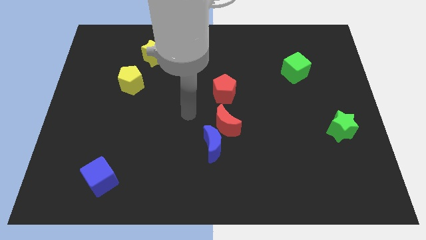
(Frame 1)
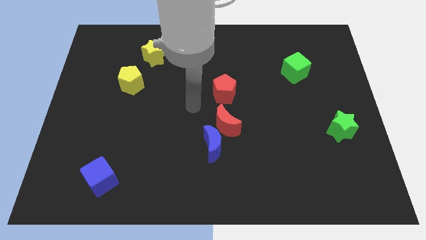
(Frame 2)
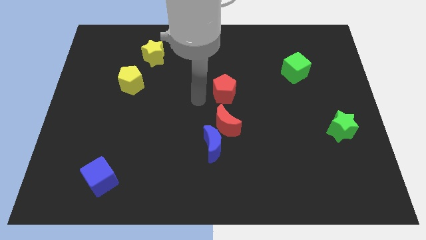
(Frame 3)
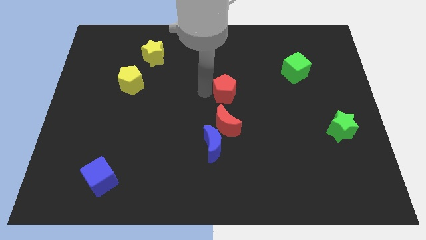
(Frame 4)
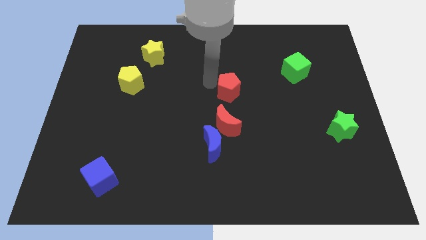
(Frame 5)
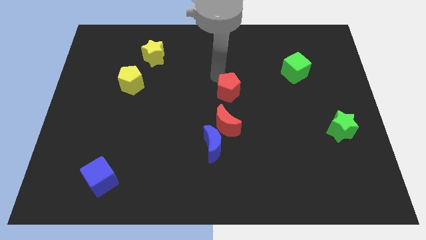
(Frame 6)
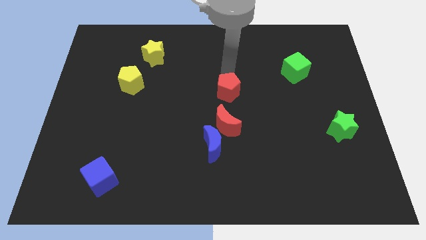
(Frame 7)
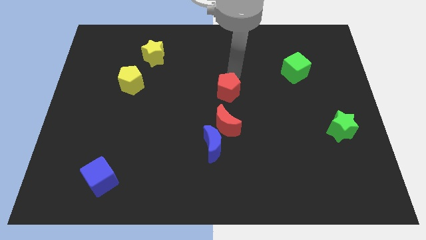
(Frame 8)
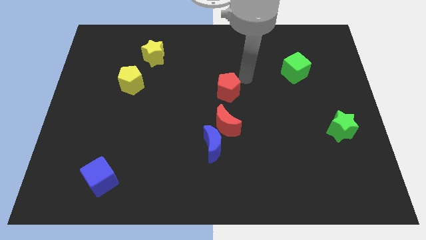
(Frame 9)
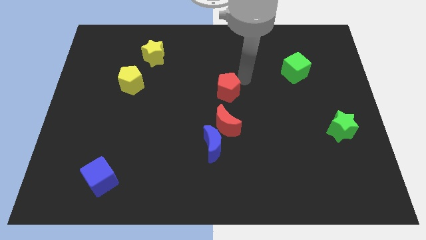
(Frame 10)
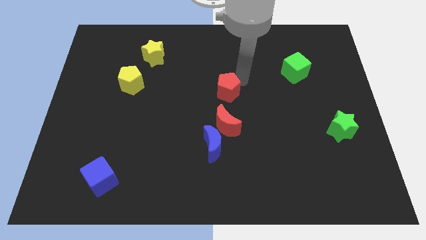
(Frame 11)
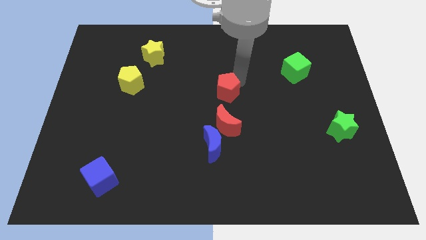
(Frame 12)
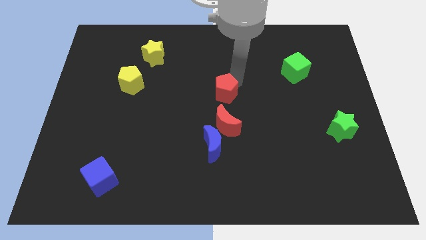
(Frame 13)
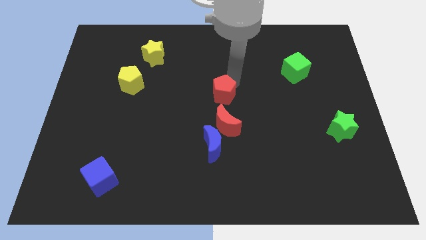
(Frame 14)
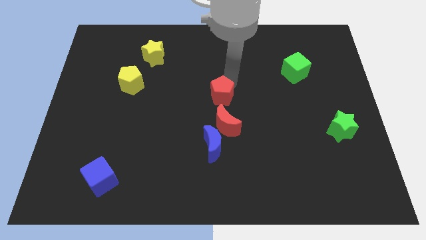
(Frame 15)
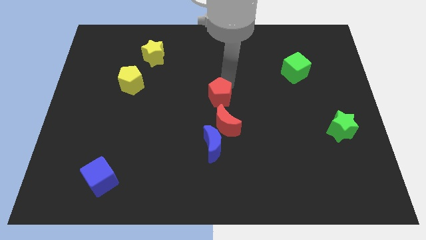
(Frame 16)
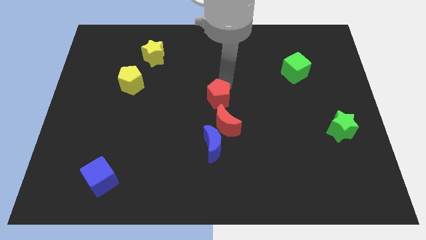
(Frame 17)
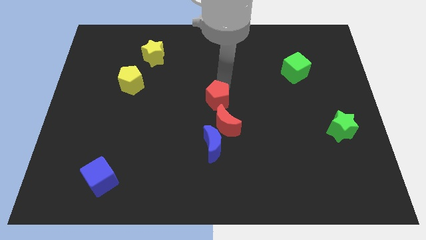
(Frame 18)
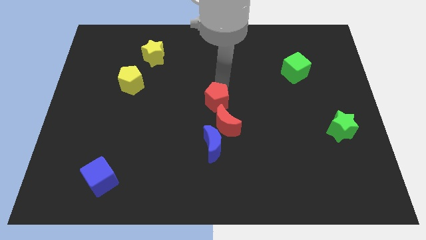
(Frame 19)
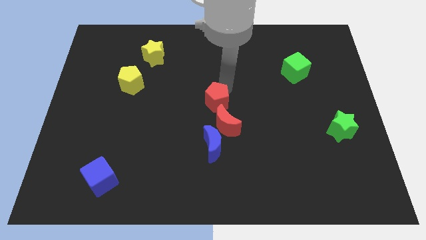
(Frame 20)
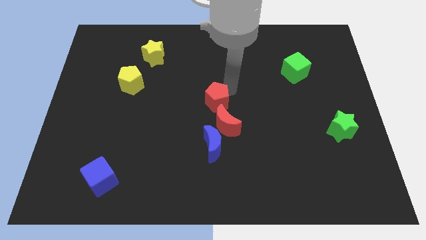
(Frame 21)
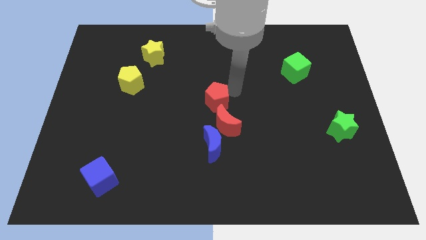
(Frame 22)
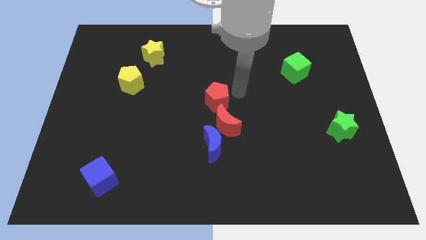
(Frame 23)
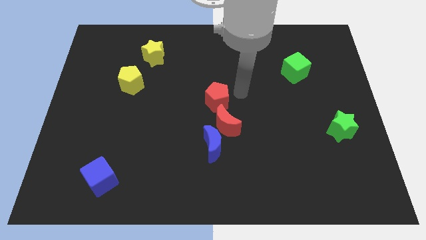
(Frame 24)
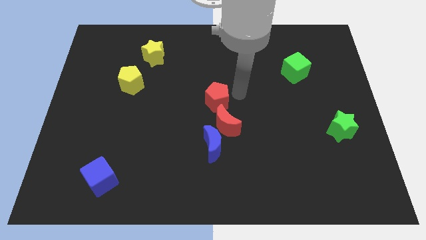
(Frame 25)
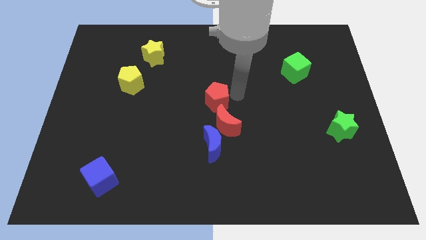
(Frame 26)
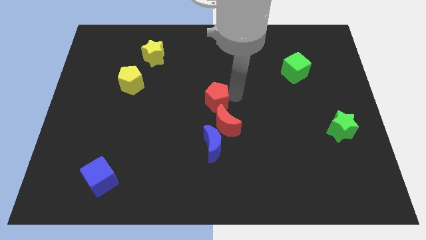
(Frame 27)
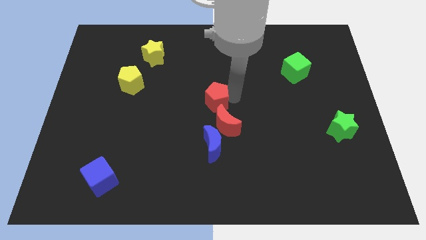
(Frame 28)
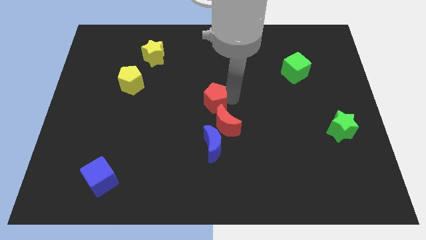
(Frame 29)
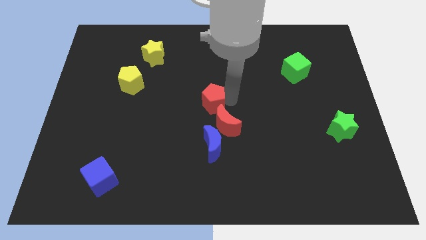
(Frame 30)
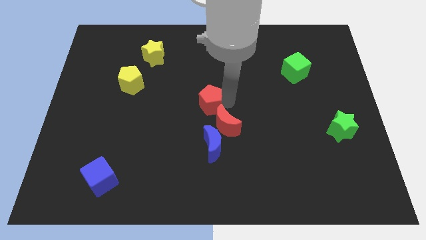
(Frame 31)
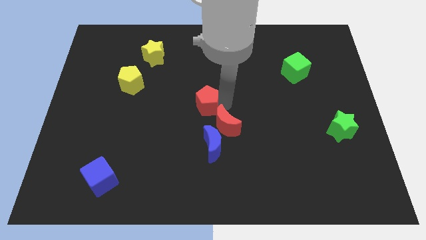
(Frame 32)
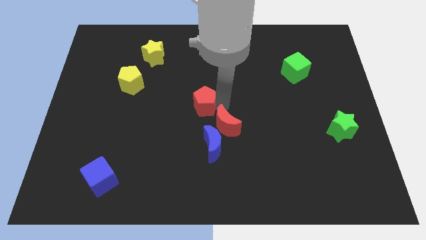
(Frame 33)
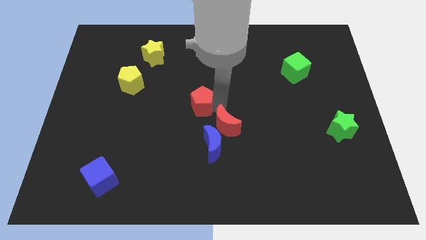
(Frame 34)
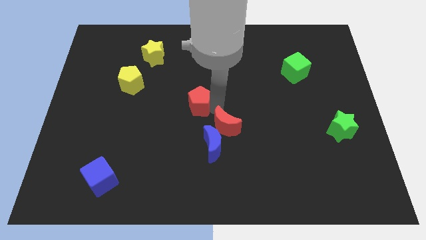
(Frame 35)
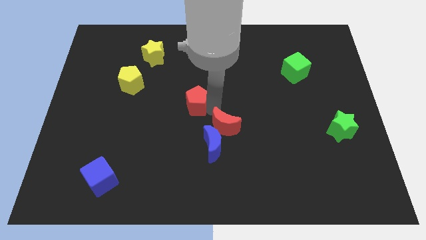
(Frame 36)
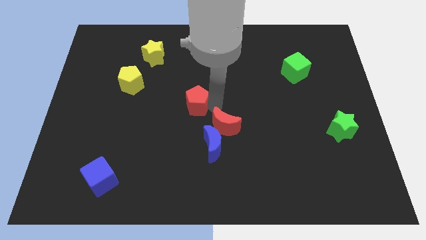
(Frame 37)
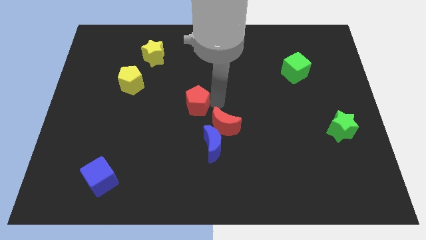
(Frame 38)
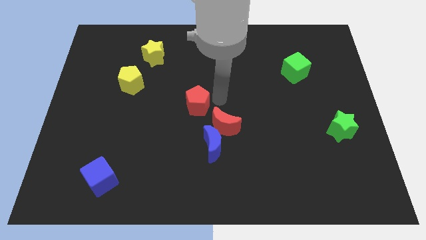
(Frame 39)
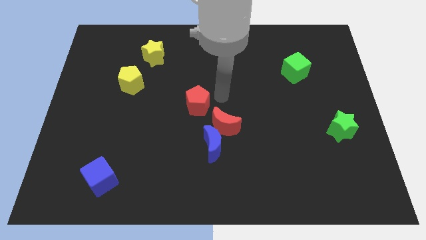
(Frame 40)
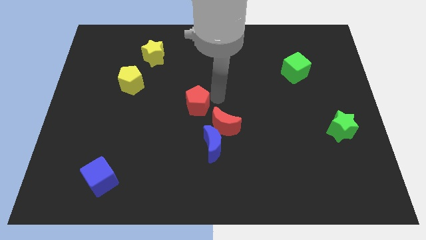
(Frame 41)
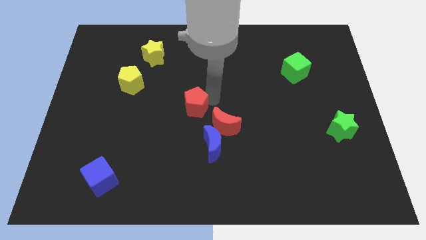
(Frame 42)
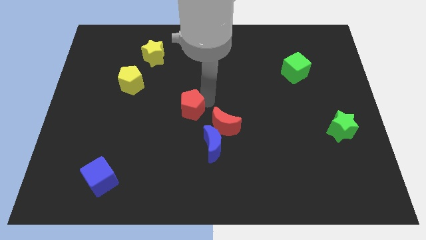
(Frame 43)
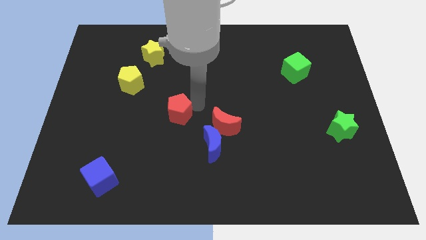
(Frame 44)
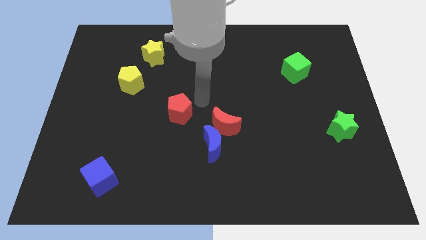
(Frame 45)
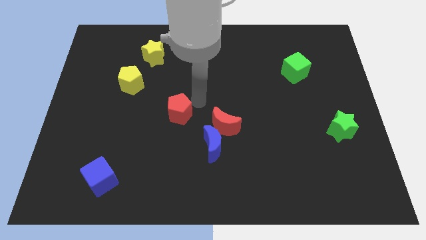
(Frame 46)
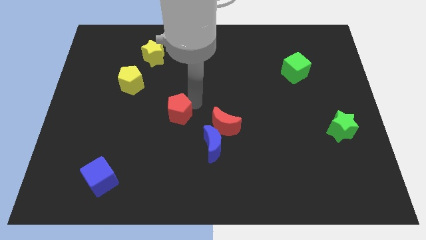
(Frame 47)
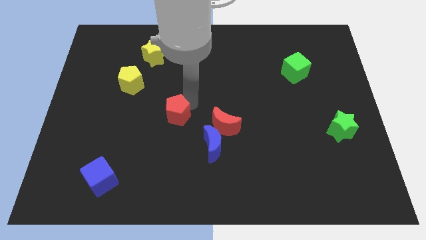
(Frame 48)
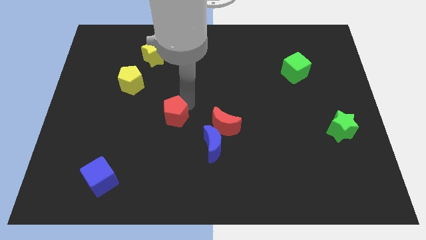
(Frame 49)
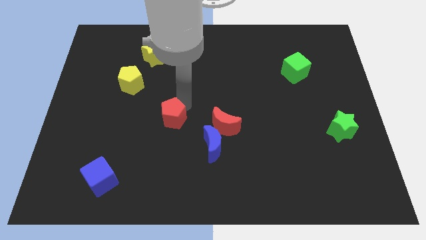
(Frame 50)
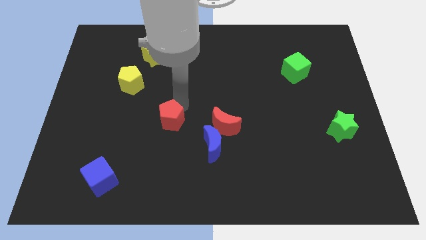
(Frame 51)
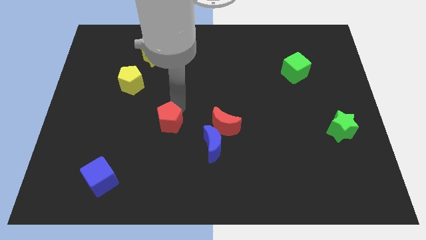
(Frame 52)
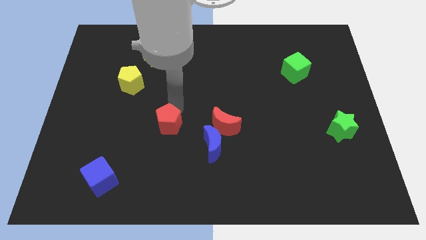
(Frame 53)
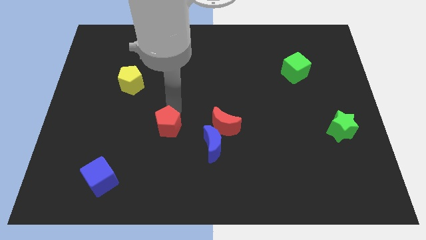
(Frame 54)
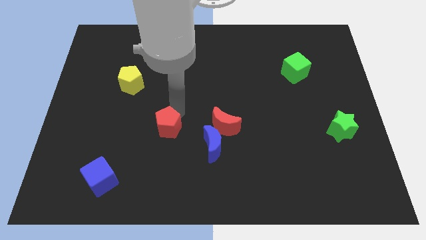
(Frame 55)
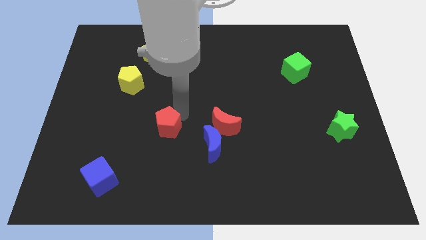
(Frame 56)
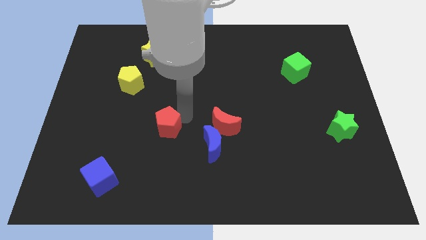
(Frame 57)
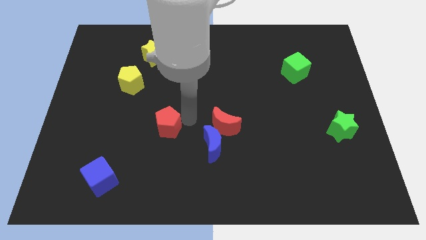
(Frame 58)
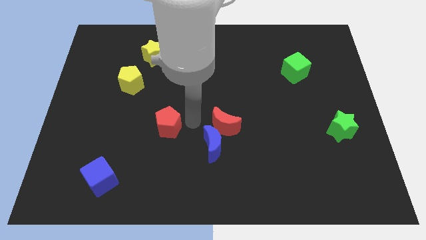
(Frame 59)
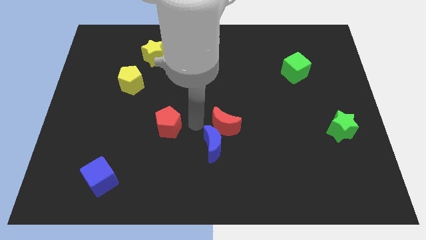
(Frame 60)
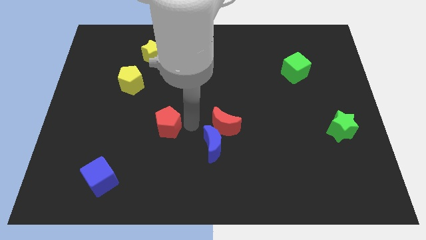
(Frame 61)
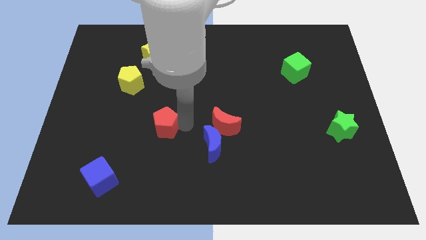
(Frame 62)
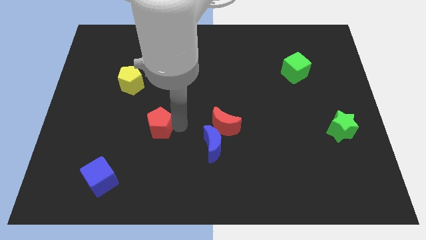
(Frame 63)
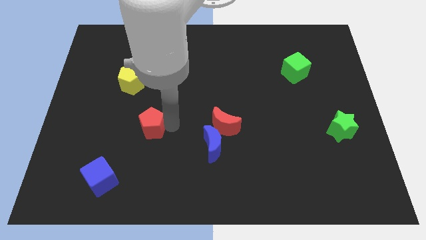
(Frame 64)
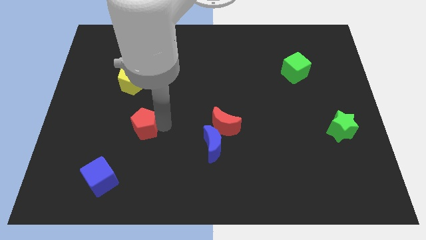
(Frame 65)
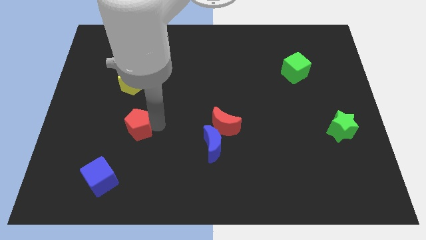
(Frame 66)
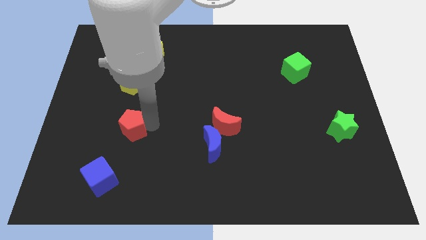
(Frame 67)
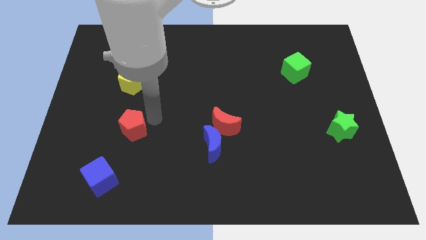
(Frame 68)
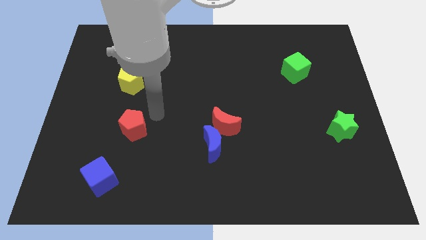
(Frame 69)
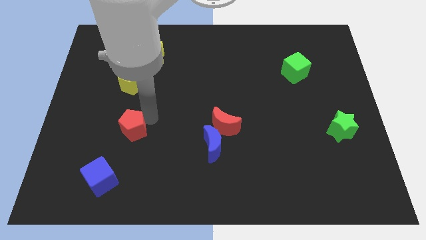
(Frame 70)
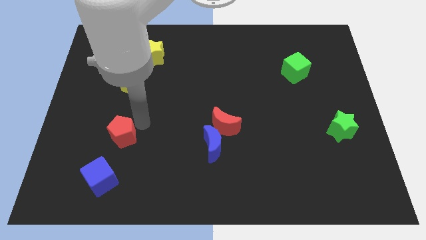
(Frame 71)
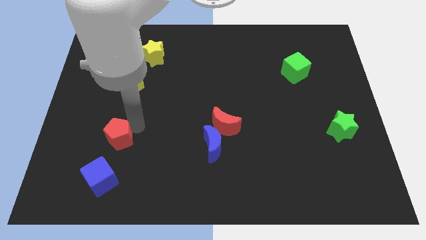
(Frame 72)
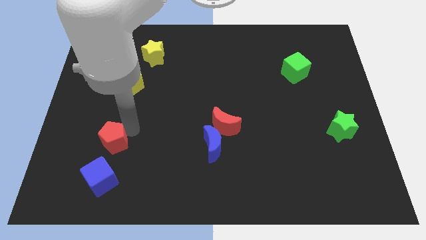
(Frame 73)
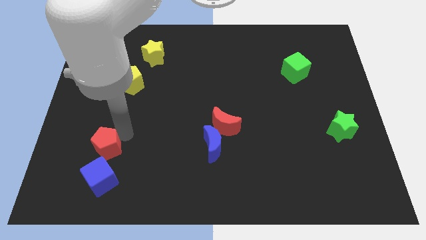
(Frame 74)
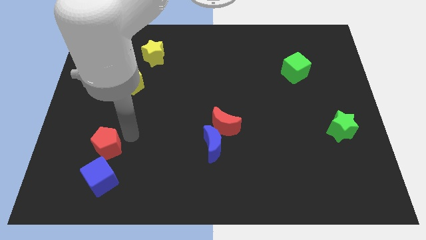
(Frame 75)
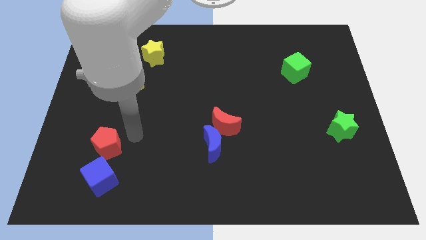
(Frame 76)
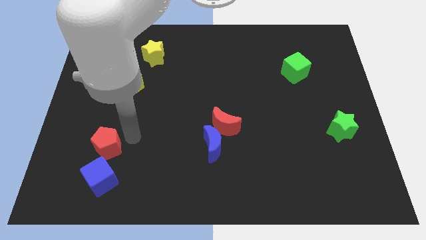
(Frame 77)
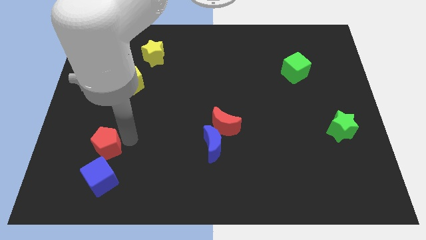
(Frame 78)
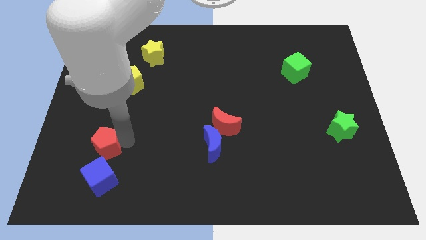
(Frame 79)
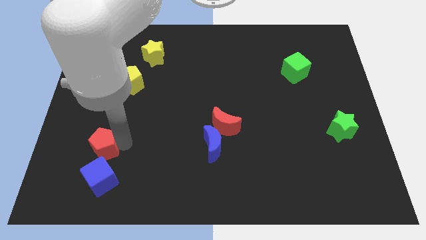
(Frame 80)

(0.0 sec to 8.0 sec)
push the red pentagon diagonally up and to the left of the blue cube
